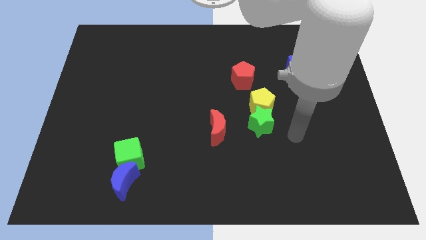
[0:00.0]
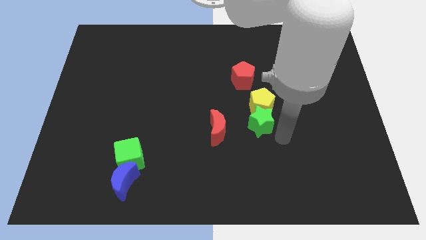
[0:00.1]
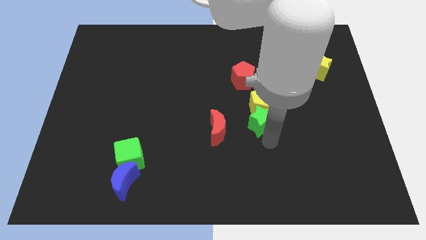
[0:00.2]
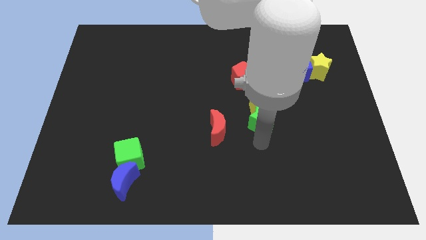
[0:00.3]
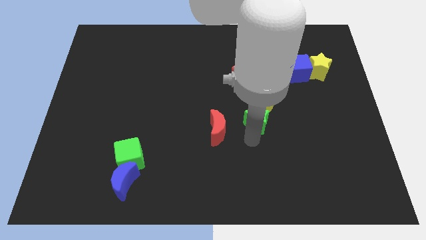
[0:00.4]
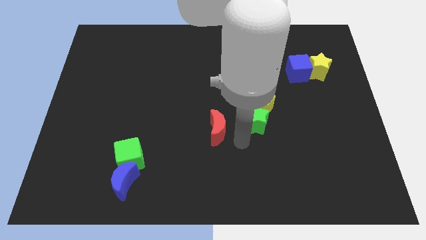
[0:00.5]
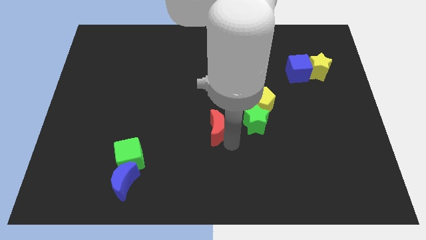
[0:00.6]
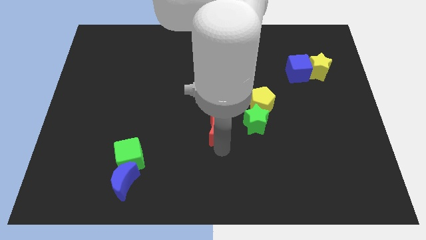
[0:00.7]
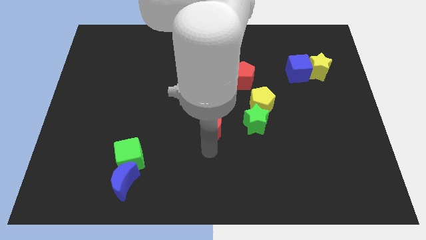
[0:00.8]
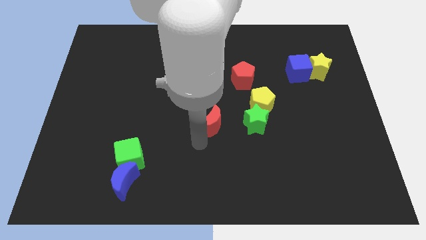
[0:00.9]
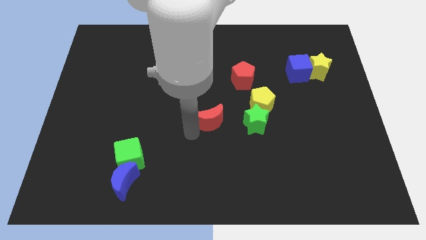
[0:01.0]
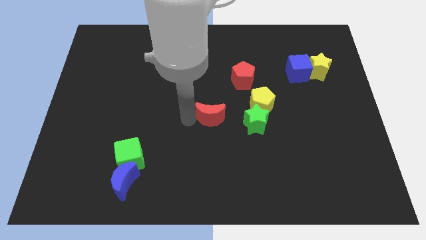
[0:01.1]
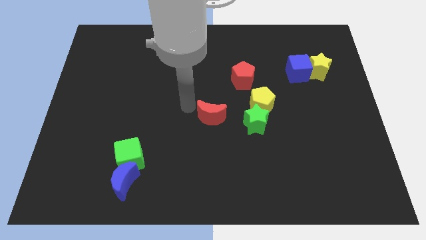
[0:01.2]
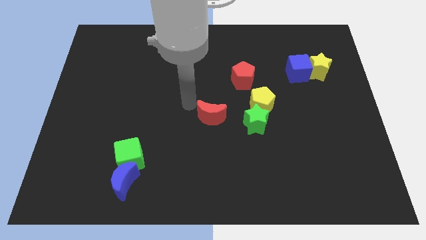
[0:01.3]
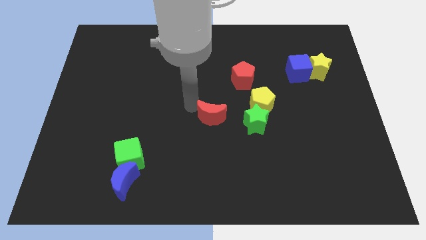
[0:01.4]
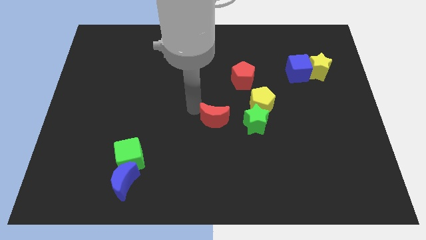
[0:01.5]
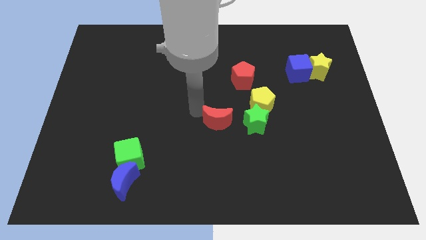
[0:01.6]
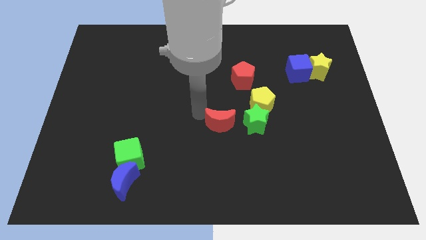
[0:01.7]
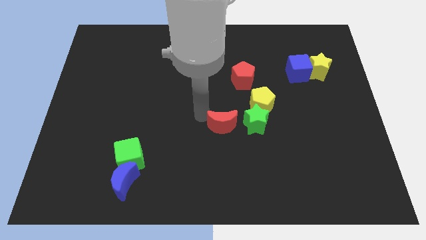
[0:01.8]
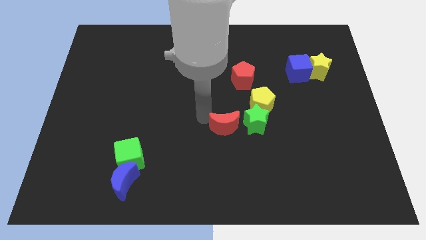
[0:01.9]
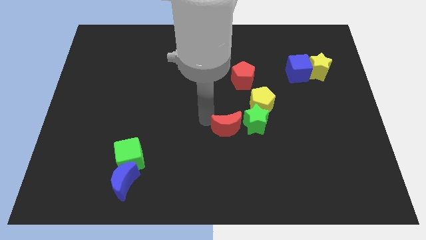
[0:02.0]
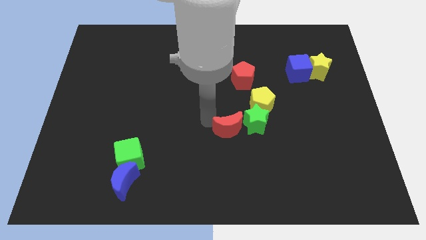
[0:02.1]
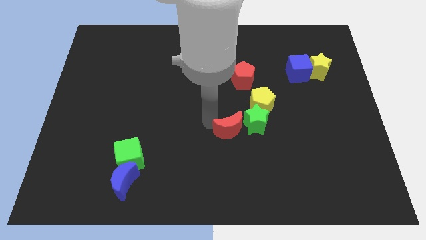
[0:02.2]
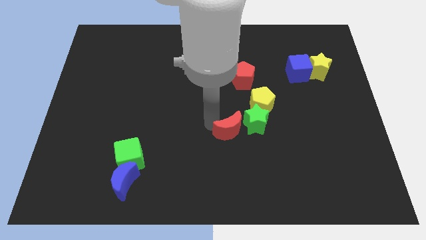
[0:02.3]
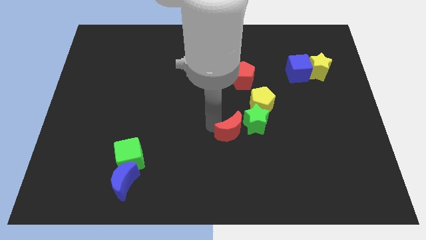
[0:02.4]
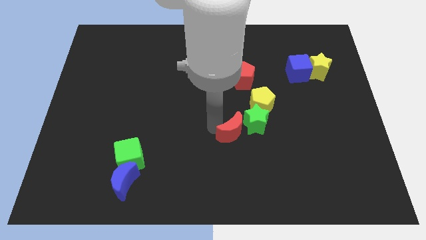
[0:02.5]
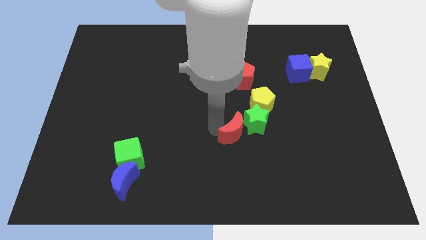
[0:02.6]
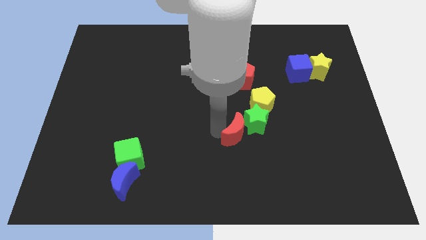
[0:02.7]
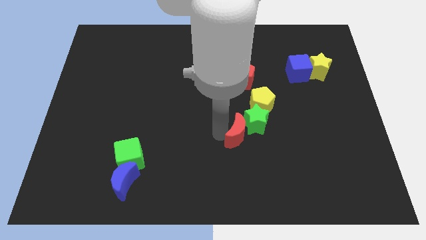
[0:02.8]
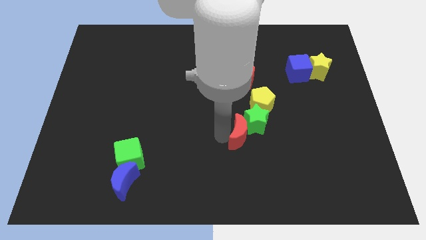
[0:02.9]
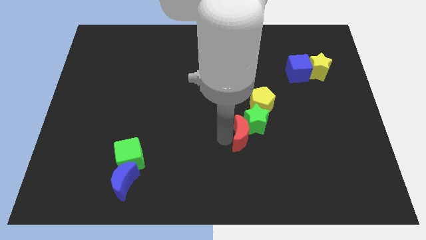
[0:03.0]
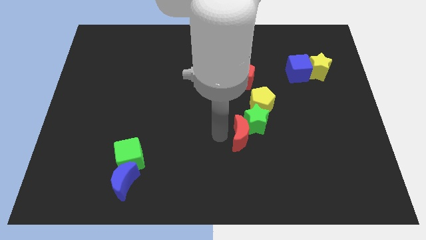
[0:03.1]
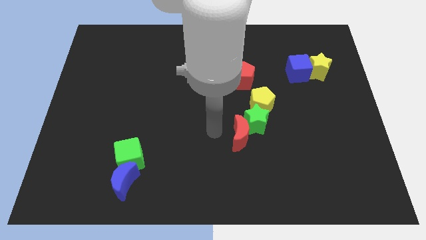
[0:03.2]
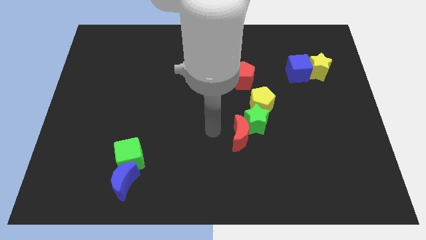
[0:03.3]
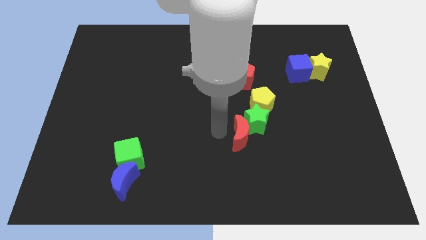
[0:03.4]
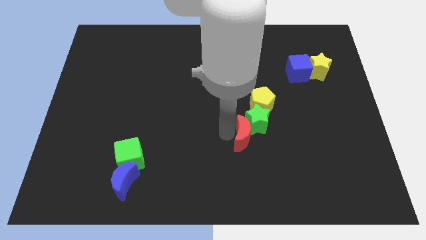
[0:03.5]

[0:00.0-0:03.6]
slide the red moon to the bottom side of the yellow pentagon

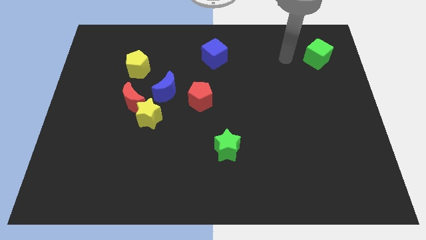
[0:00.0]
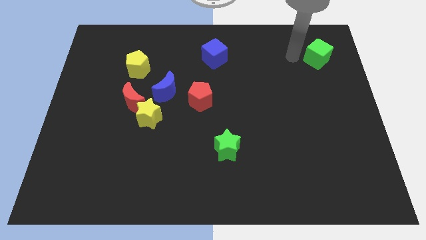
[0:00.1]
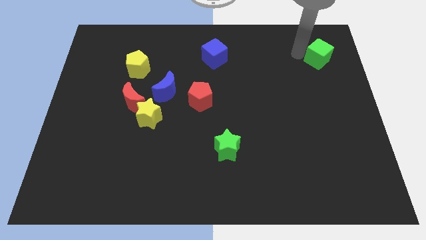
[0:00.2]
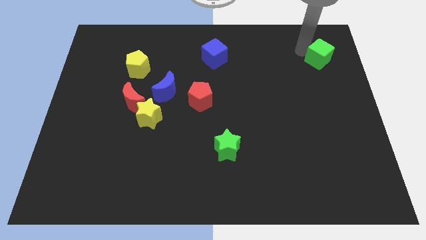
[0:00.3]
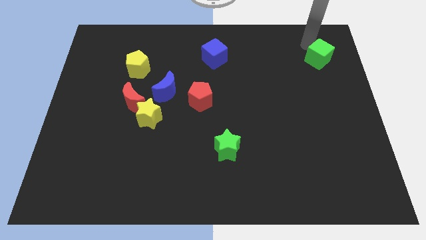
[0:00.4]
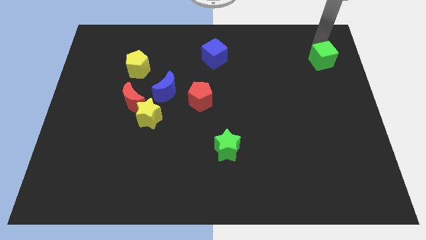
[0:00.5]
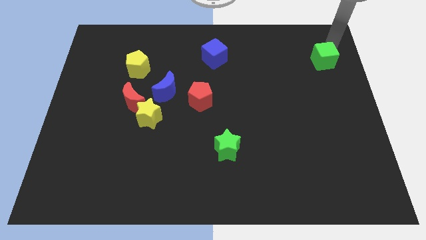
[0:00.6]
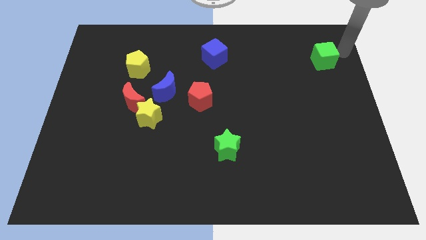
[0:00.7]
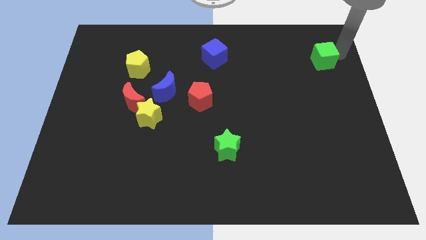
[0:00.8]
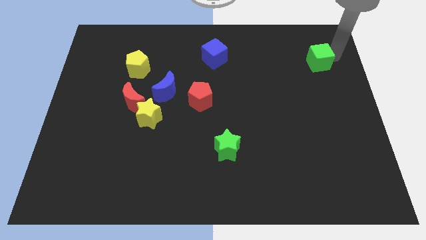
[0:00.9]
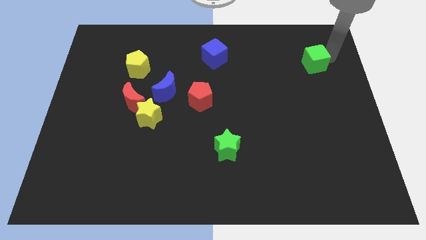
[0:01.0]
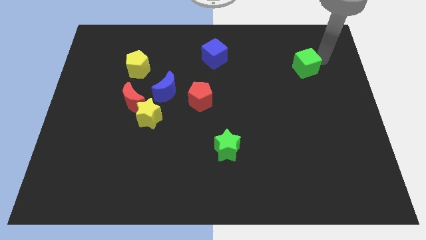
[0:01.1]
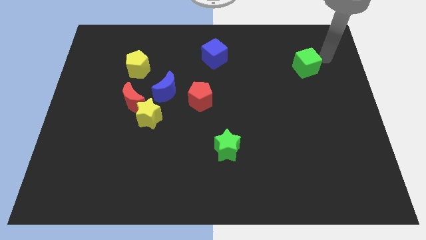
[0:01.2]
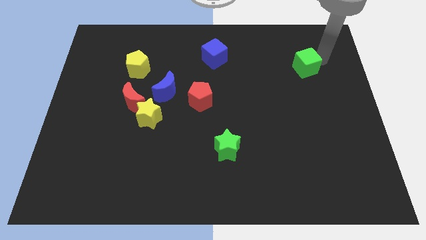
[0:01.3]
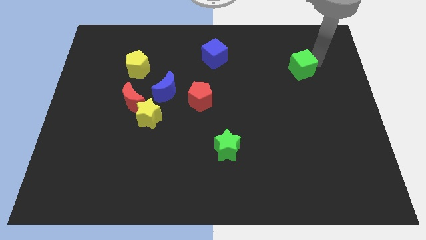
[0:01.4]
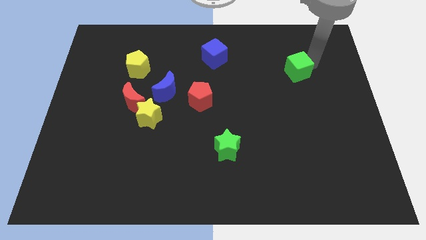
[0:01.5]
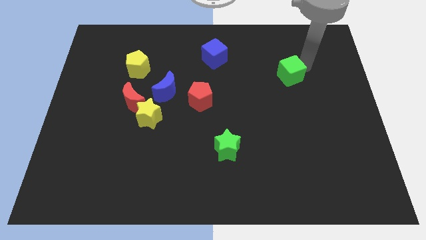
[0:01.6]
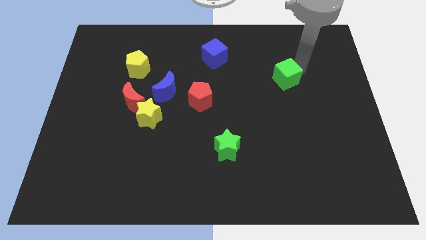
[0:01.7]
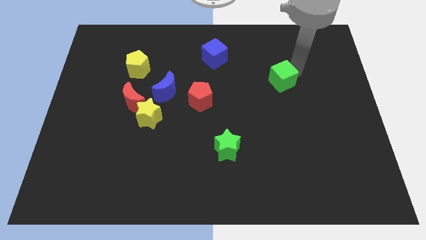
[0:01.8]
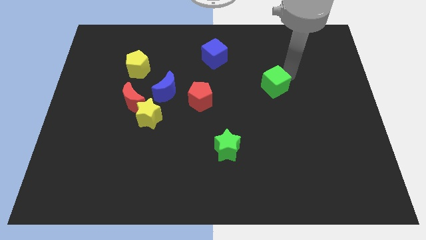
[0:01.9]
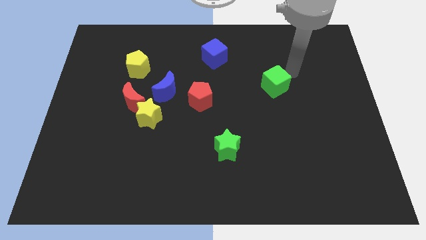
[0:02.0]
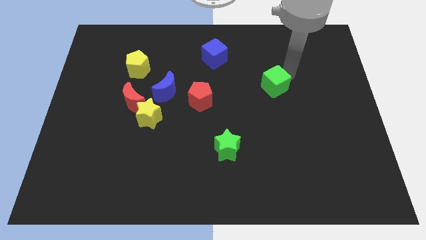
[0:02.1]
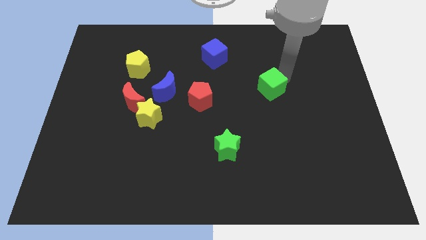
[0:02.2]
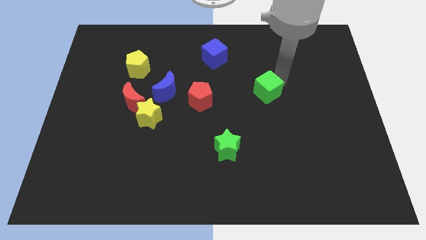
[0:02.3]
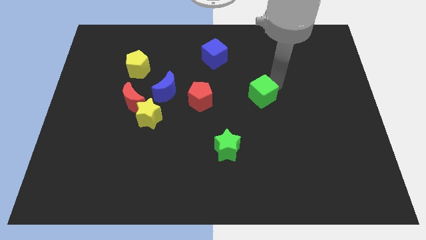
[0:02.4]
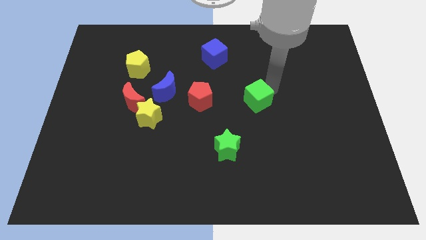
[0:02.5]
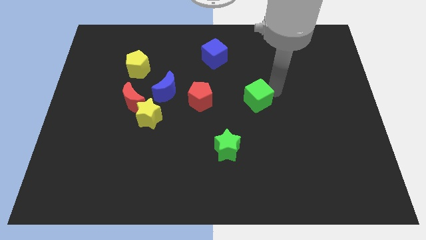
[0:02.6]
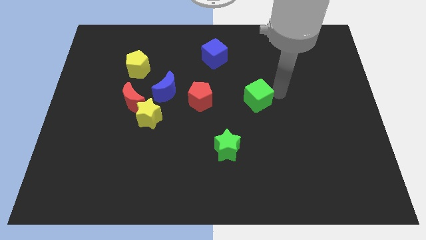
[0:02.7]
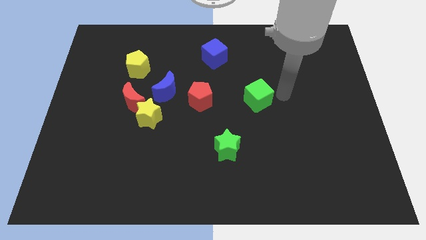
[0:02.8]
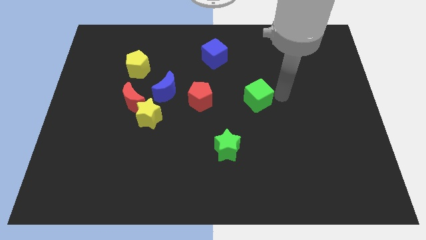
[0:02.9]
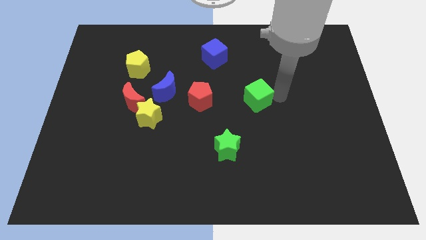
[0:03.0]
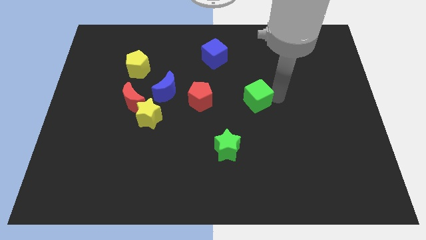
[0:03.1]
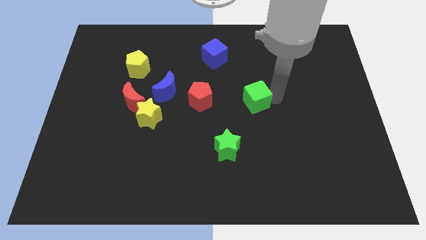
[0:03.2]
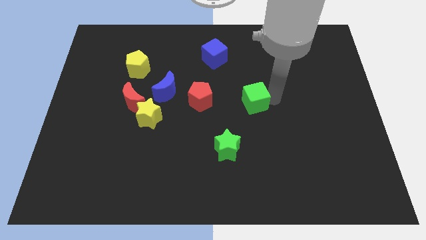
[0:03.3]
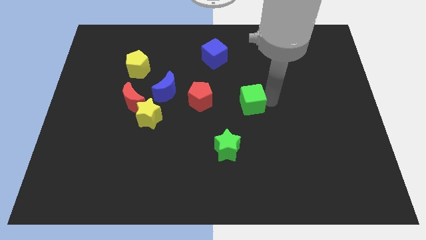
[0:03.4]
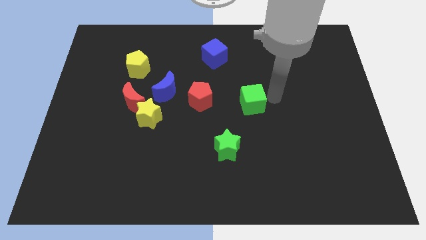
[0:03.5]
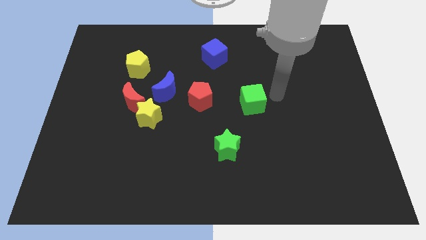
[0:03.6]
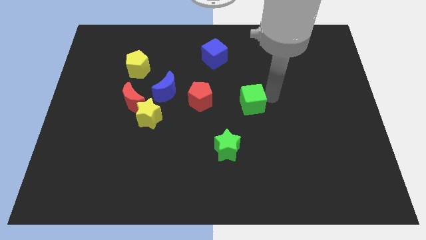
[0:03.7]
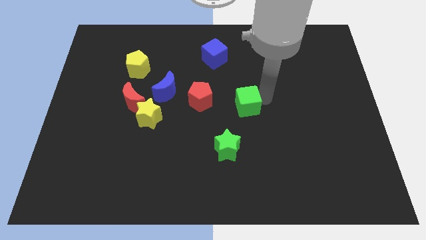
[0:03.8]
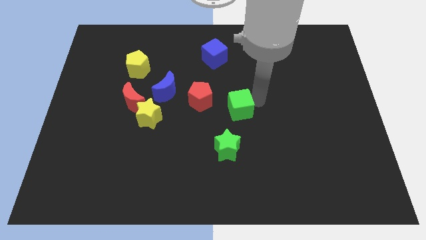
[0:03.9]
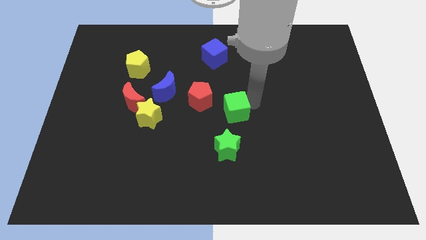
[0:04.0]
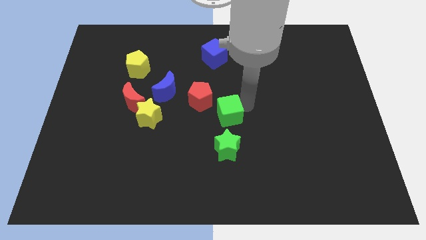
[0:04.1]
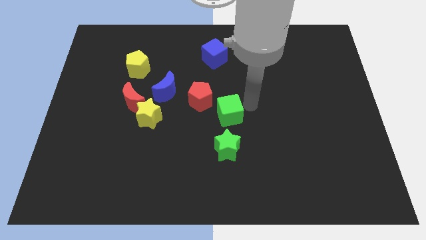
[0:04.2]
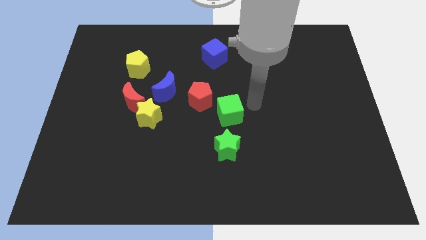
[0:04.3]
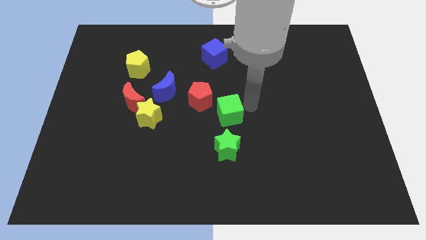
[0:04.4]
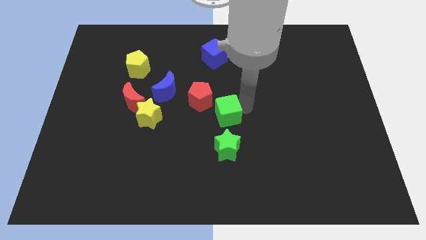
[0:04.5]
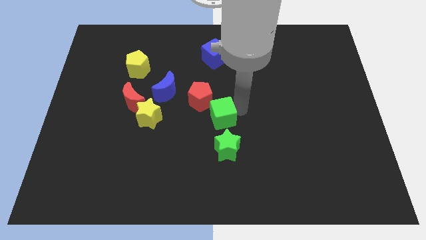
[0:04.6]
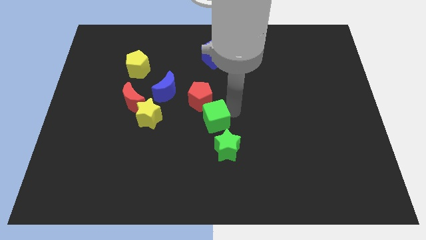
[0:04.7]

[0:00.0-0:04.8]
slide the green cube to the bottom of the red pentagon
